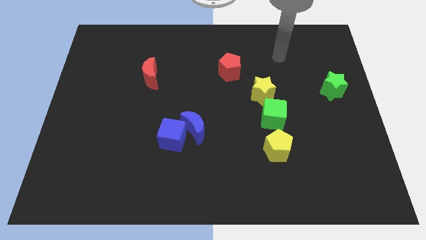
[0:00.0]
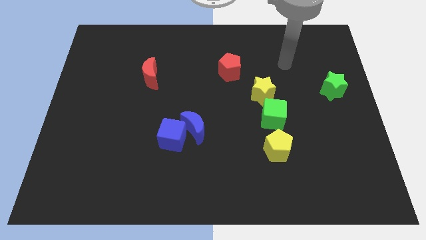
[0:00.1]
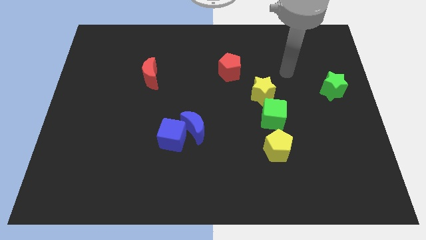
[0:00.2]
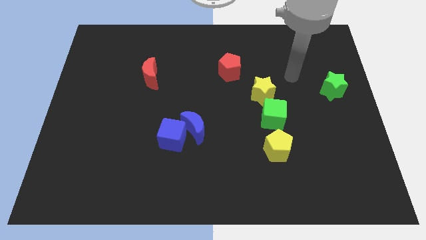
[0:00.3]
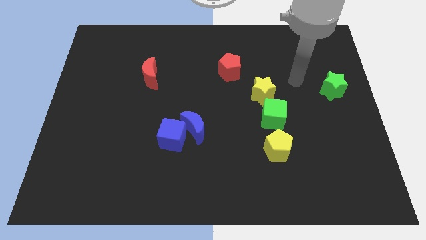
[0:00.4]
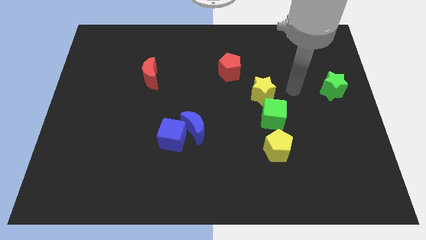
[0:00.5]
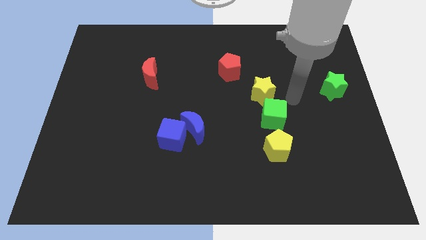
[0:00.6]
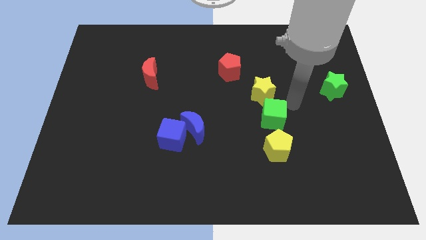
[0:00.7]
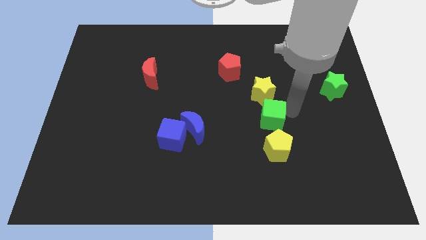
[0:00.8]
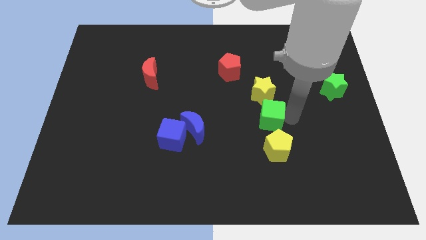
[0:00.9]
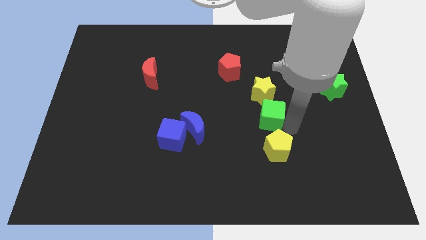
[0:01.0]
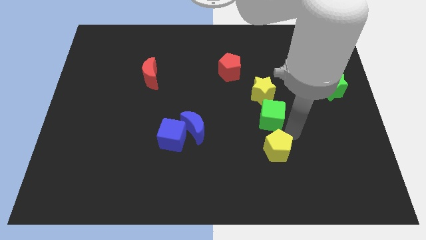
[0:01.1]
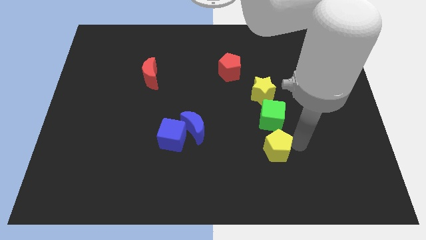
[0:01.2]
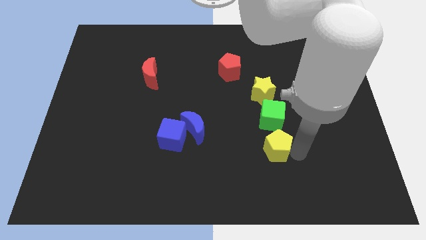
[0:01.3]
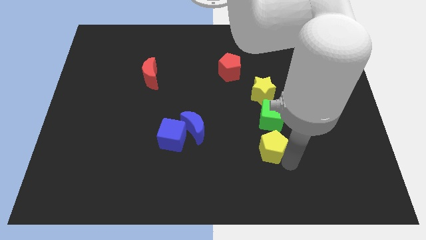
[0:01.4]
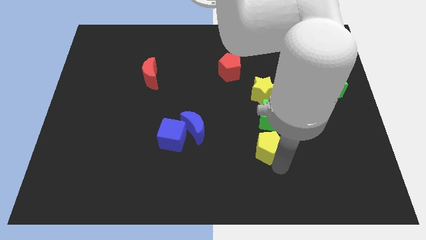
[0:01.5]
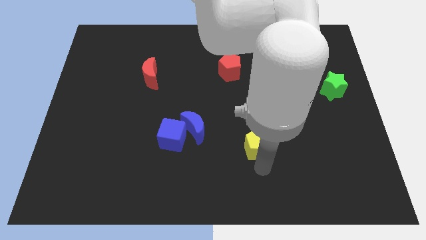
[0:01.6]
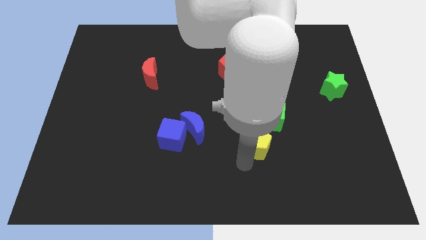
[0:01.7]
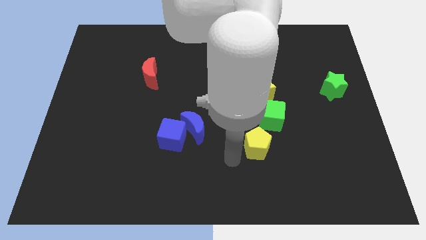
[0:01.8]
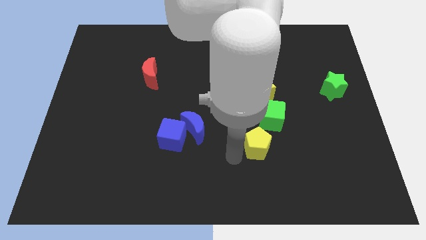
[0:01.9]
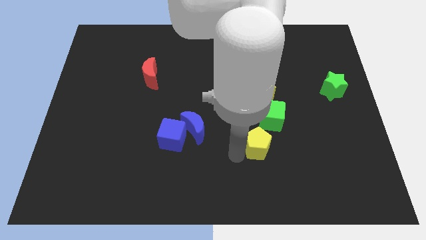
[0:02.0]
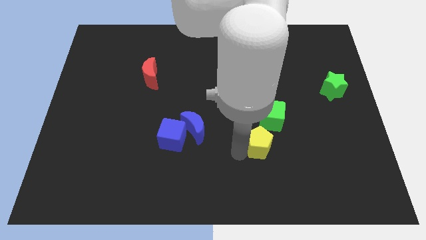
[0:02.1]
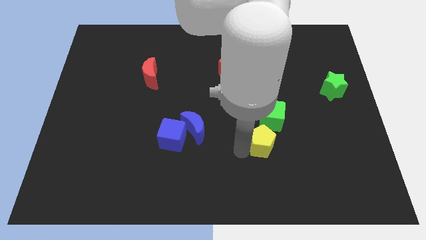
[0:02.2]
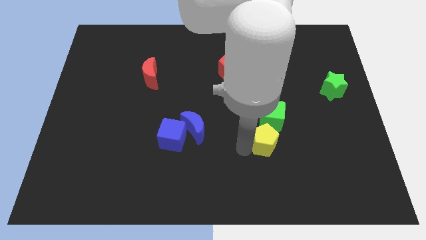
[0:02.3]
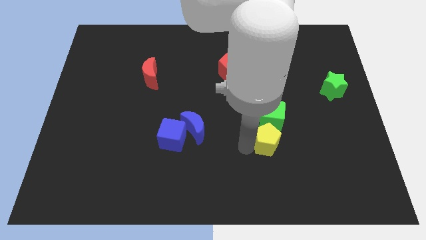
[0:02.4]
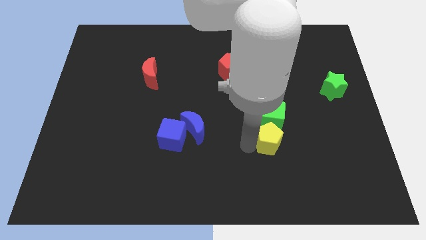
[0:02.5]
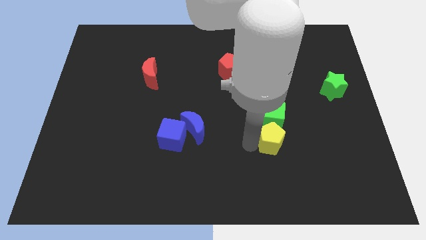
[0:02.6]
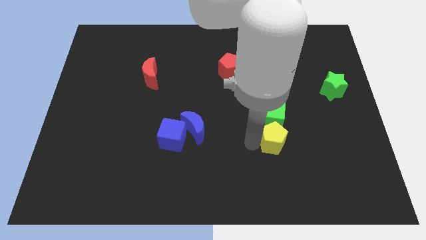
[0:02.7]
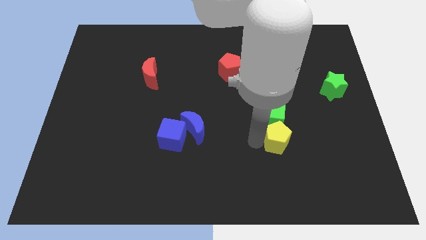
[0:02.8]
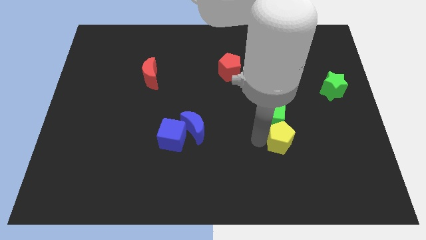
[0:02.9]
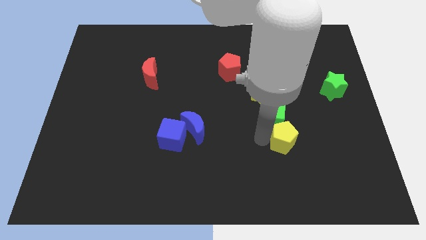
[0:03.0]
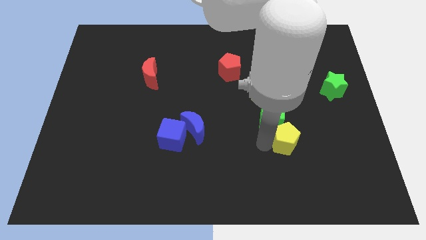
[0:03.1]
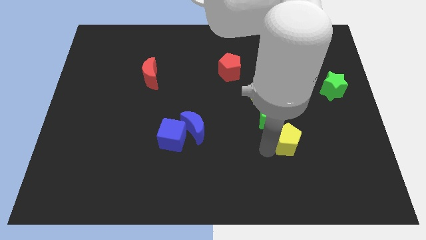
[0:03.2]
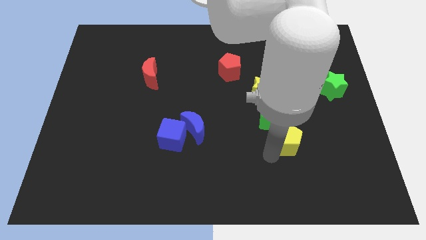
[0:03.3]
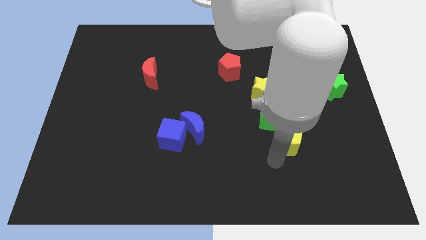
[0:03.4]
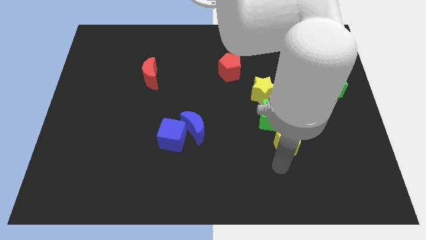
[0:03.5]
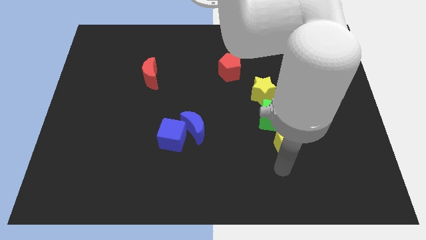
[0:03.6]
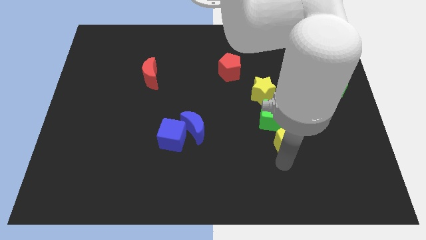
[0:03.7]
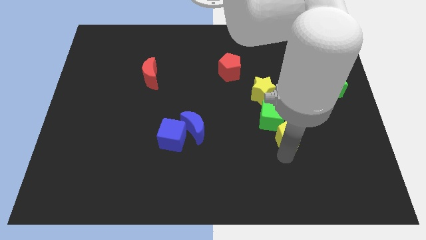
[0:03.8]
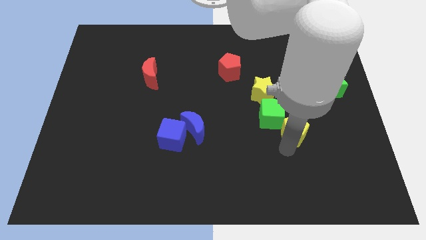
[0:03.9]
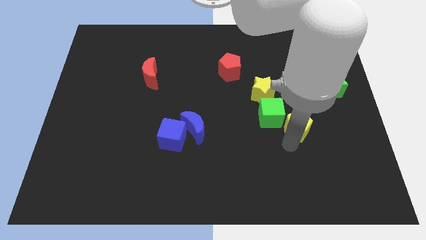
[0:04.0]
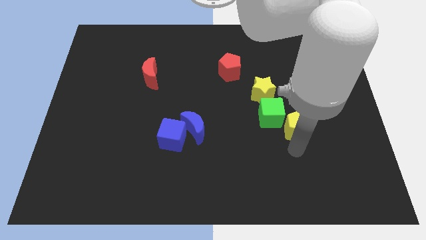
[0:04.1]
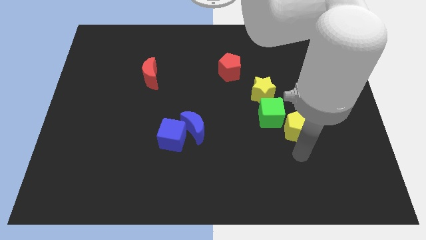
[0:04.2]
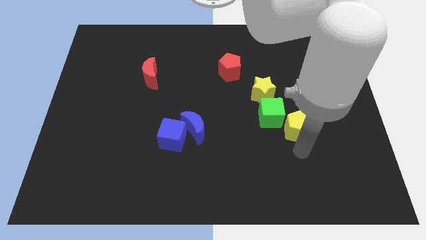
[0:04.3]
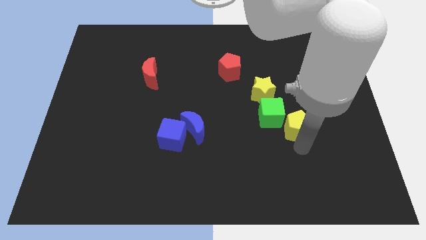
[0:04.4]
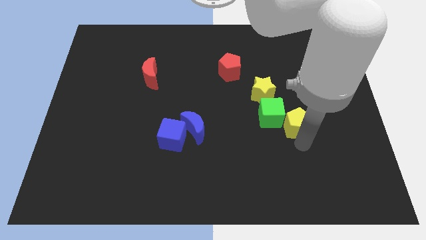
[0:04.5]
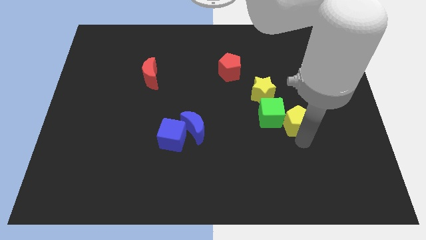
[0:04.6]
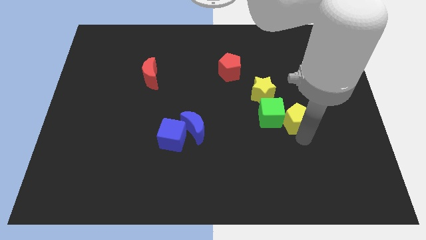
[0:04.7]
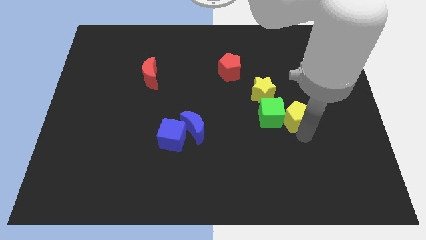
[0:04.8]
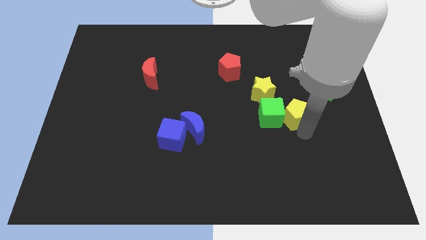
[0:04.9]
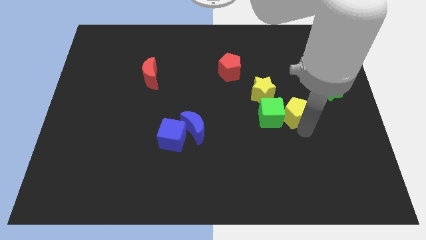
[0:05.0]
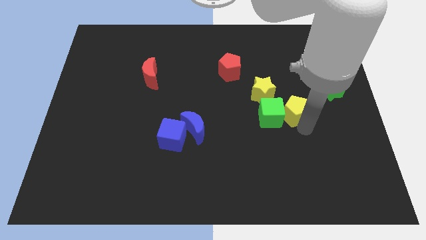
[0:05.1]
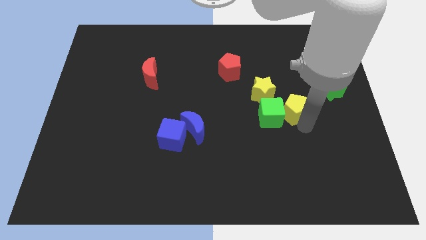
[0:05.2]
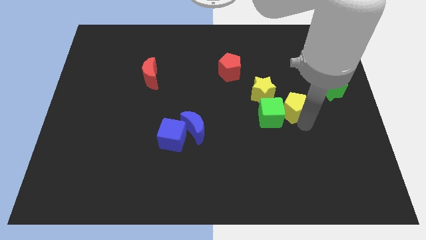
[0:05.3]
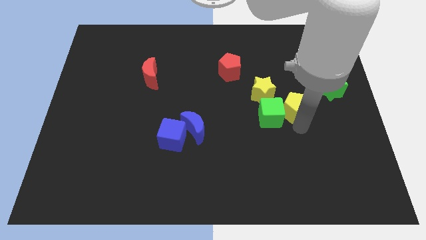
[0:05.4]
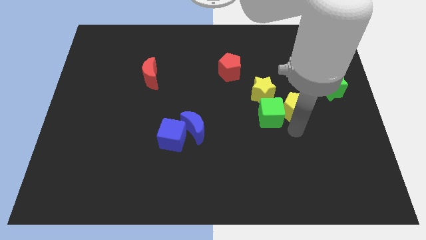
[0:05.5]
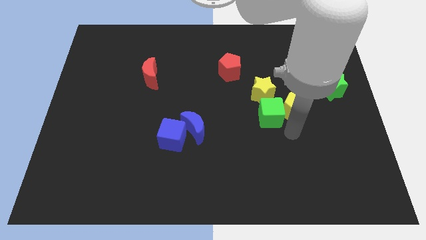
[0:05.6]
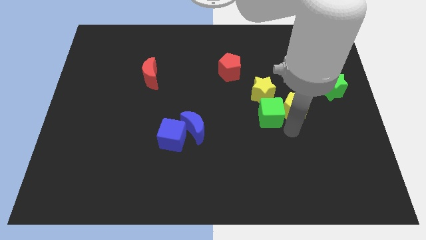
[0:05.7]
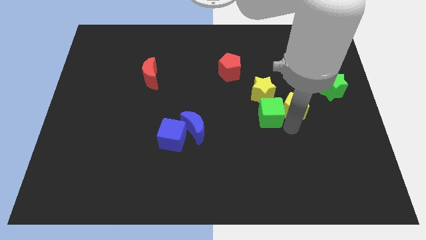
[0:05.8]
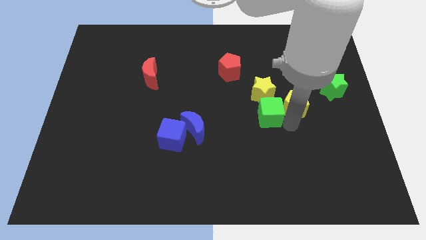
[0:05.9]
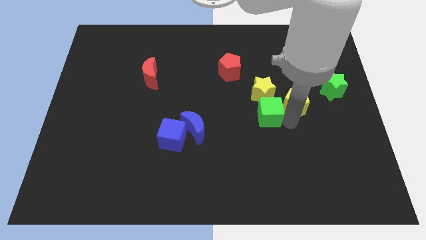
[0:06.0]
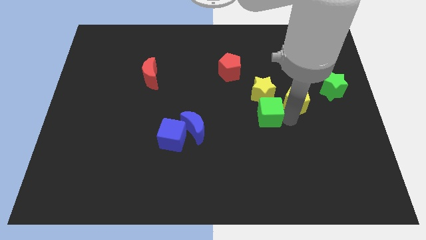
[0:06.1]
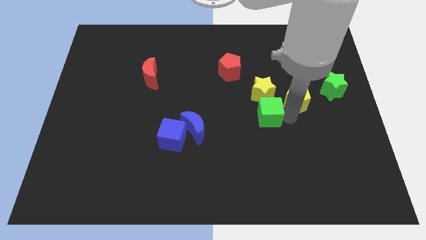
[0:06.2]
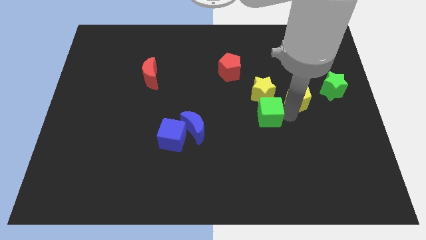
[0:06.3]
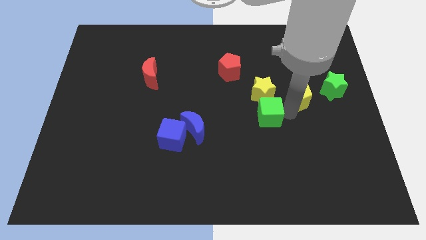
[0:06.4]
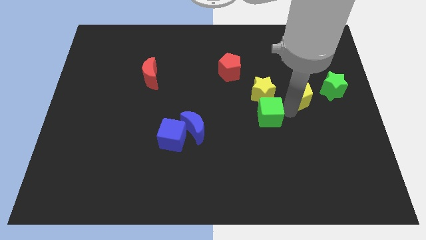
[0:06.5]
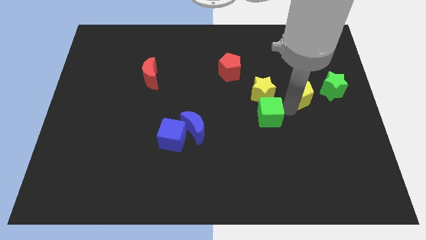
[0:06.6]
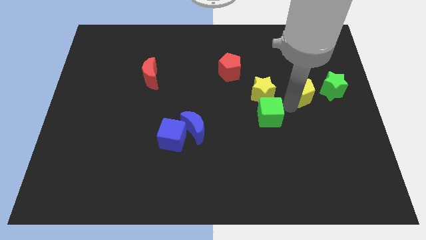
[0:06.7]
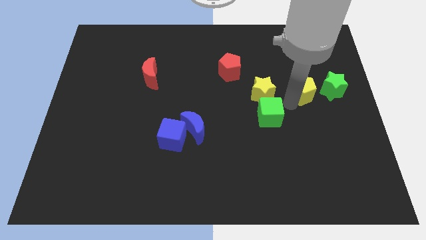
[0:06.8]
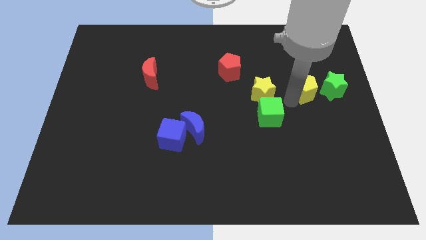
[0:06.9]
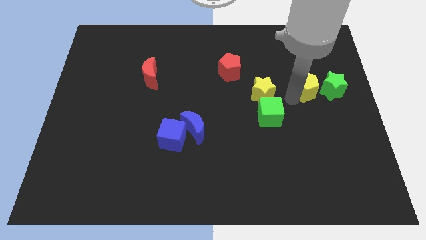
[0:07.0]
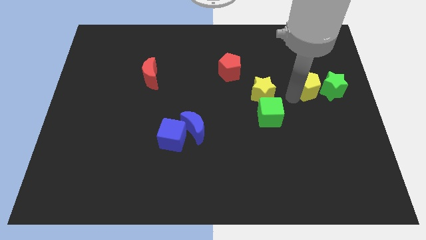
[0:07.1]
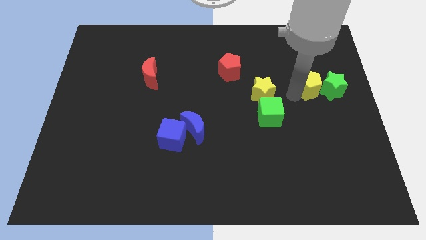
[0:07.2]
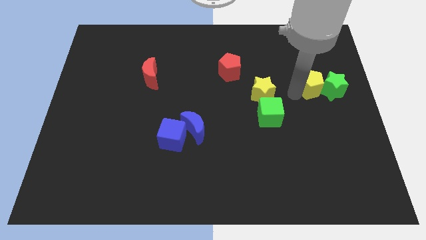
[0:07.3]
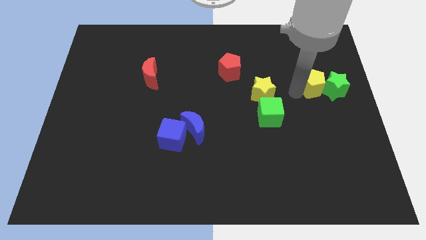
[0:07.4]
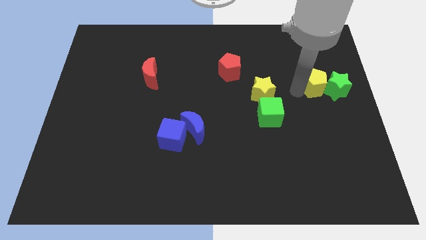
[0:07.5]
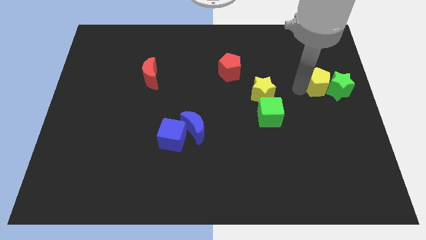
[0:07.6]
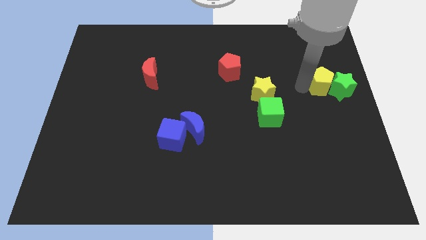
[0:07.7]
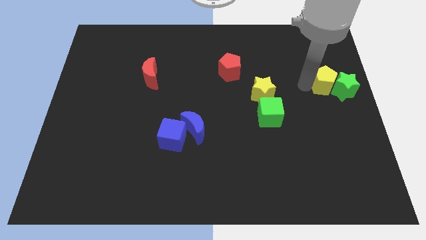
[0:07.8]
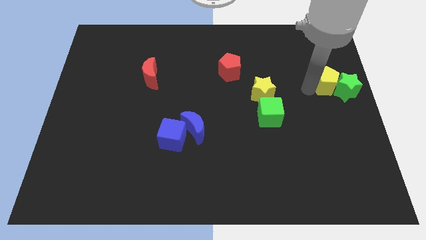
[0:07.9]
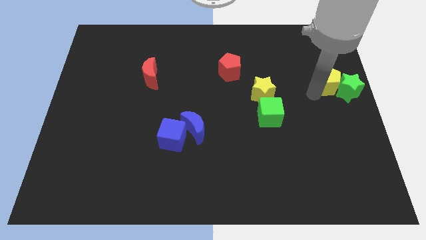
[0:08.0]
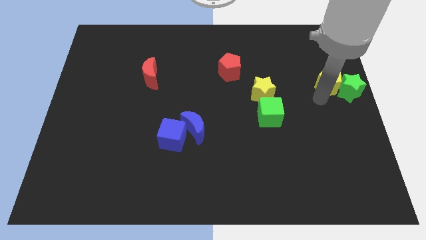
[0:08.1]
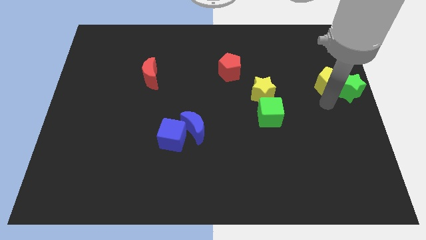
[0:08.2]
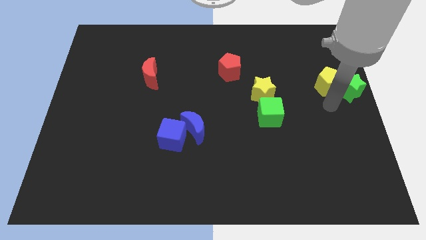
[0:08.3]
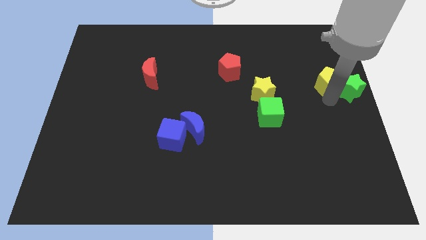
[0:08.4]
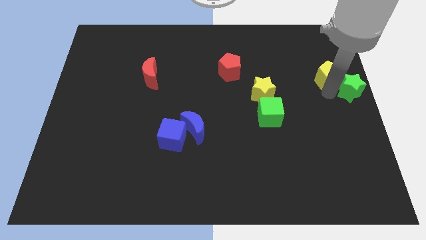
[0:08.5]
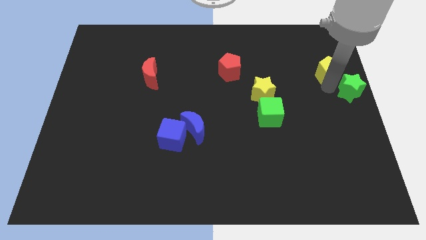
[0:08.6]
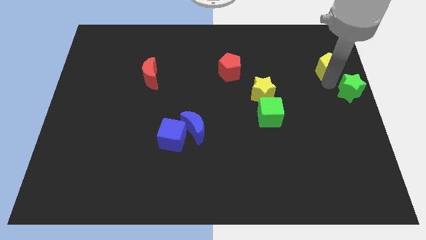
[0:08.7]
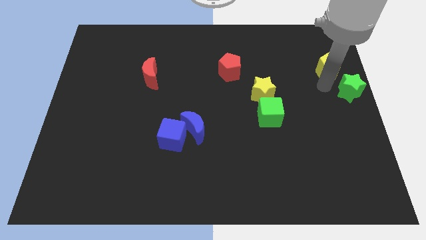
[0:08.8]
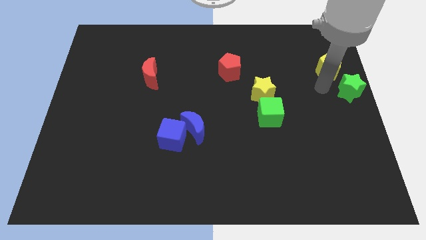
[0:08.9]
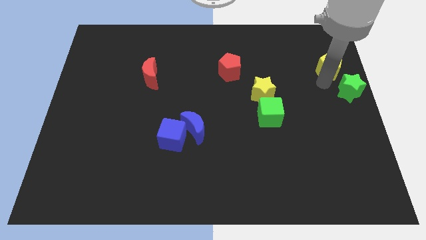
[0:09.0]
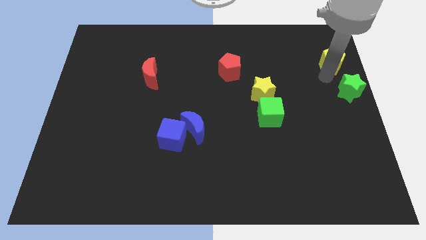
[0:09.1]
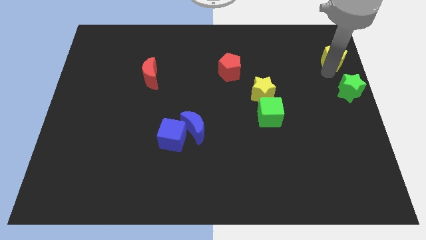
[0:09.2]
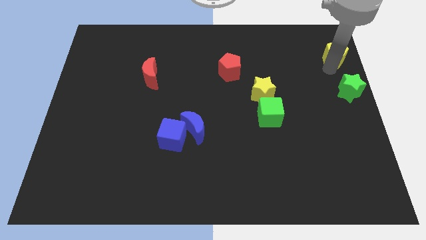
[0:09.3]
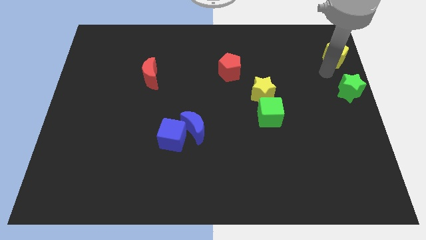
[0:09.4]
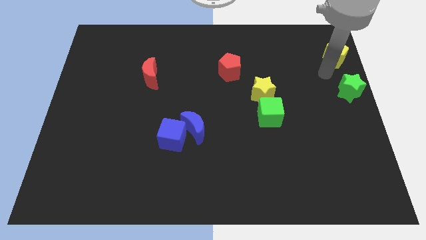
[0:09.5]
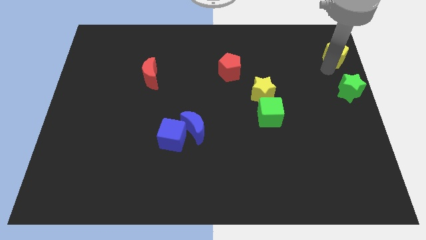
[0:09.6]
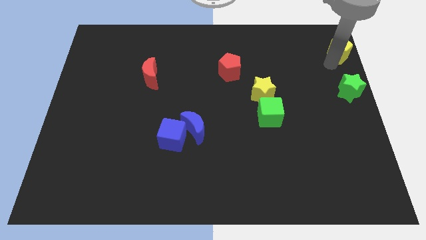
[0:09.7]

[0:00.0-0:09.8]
put the yellow pentagon to the top right of the board
